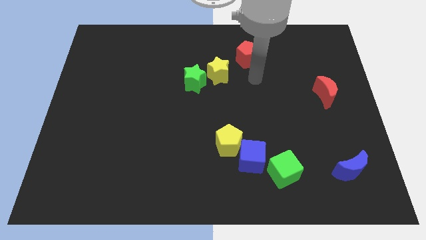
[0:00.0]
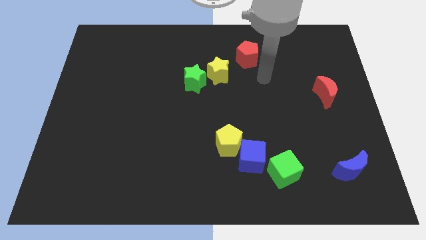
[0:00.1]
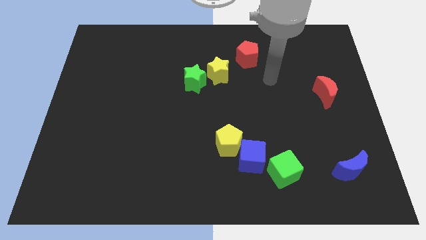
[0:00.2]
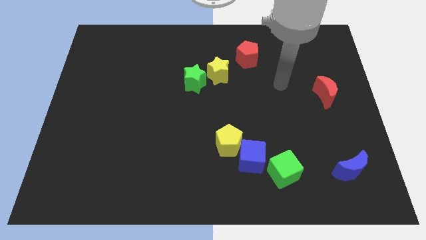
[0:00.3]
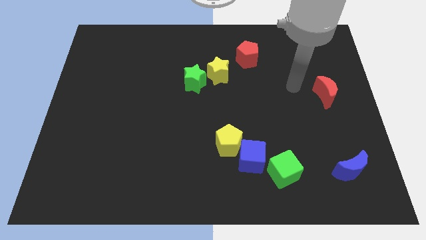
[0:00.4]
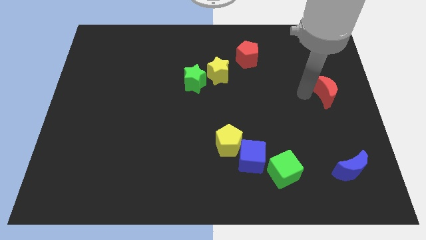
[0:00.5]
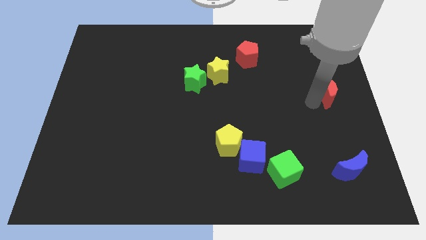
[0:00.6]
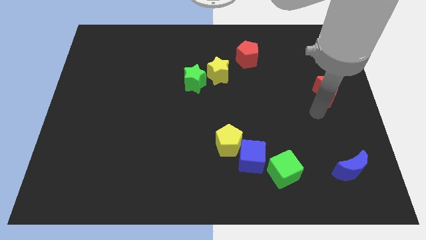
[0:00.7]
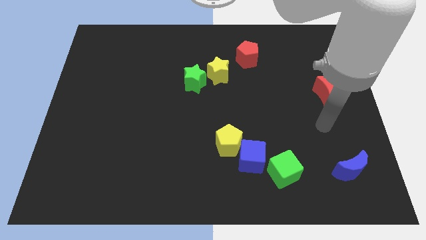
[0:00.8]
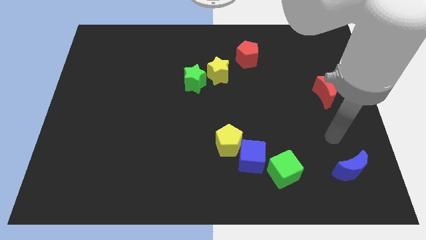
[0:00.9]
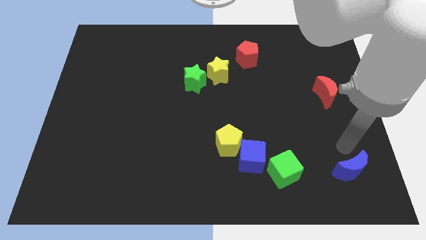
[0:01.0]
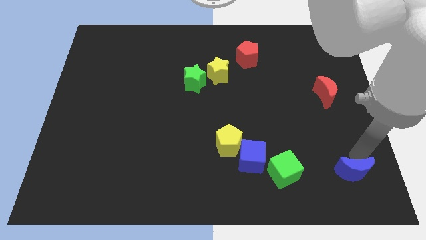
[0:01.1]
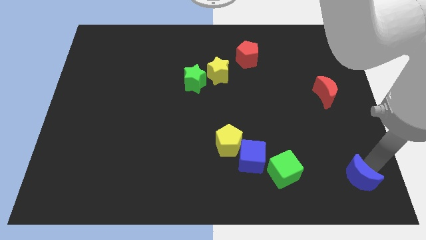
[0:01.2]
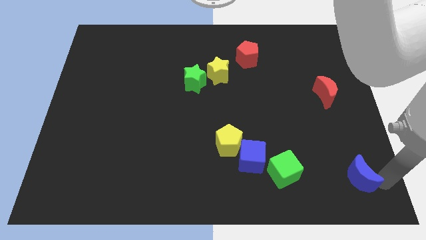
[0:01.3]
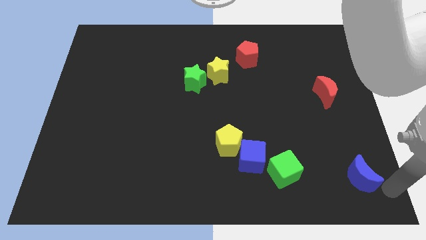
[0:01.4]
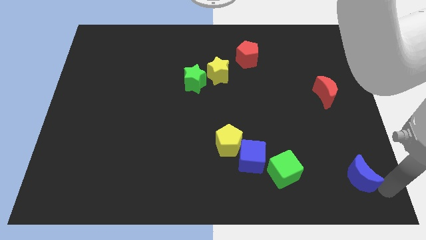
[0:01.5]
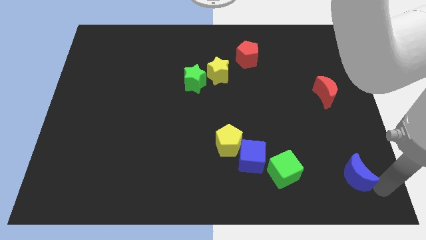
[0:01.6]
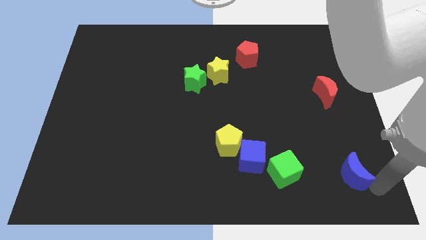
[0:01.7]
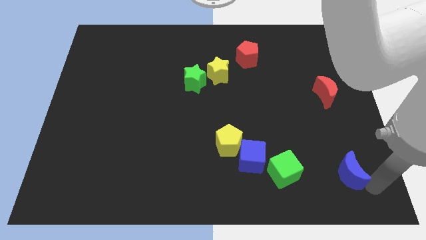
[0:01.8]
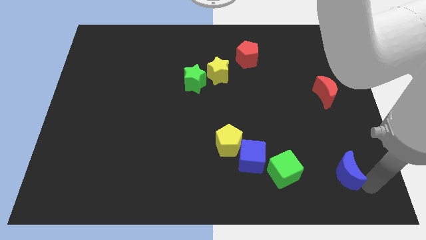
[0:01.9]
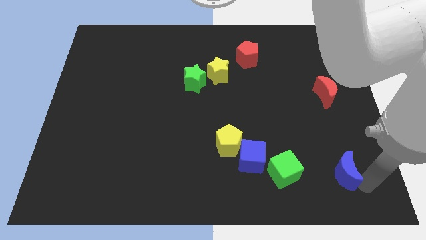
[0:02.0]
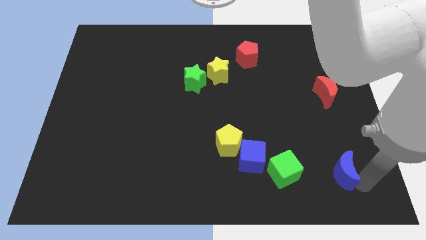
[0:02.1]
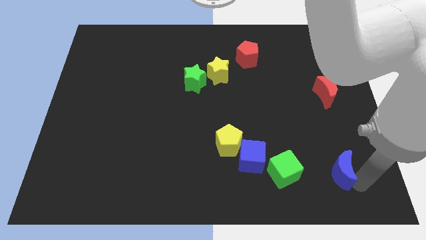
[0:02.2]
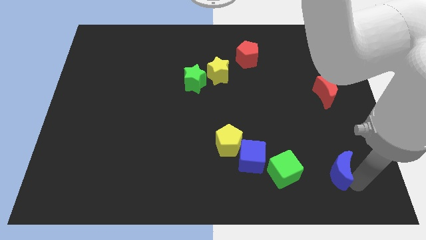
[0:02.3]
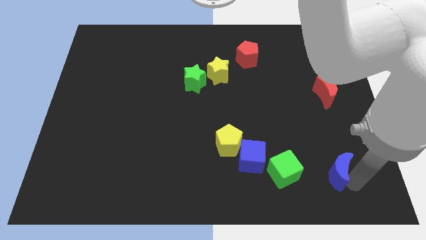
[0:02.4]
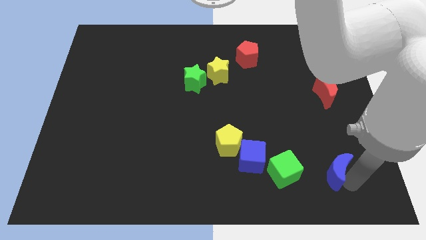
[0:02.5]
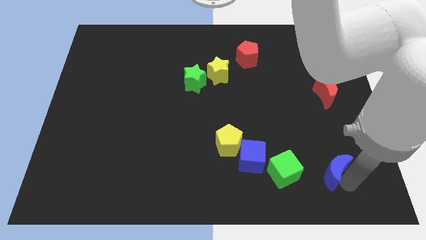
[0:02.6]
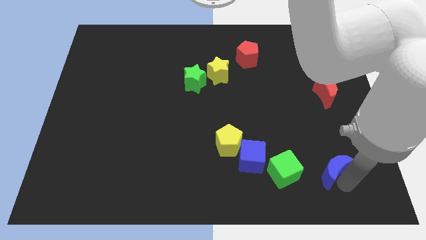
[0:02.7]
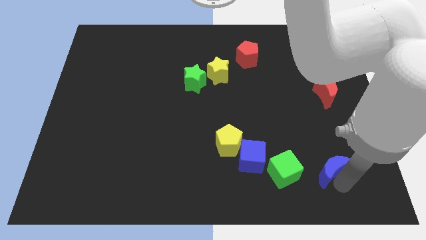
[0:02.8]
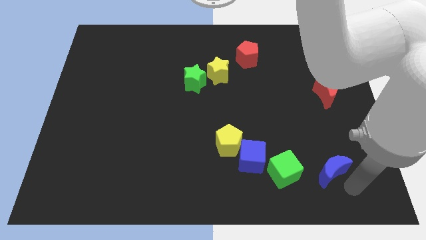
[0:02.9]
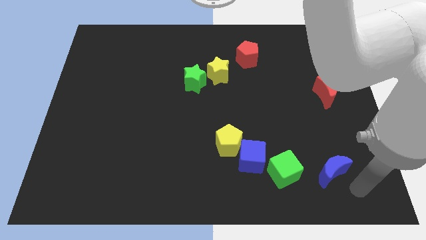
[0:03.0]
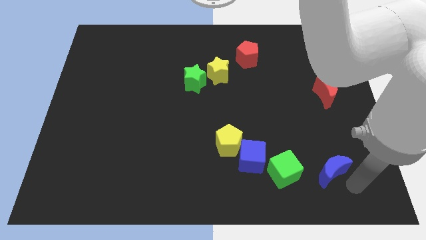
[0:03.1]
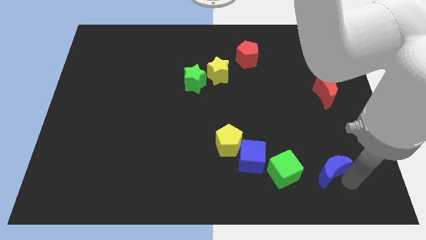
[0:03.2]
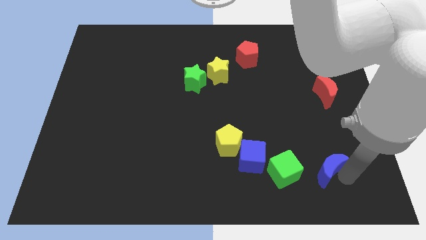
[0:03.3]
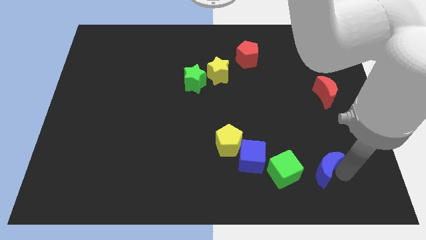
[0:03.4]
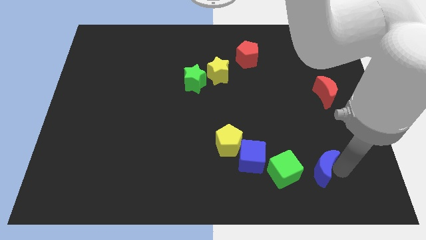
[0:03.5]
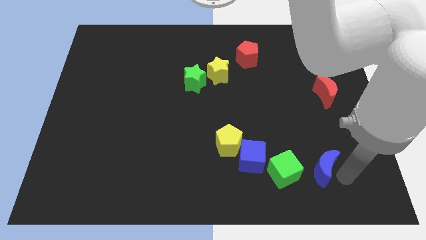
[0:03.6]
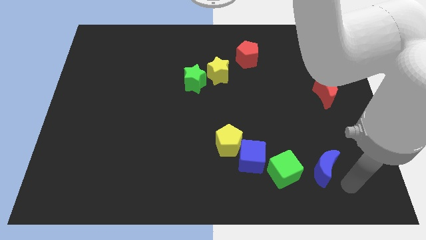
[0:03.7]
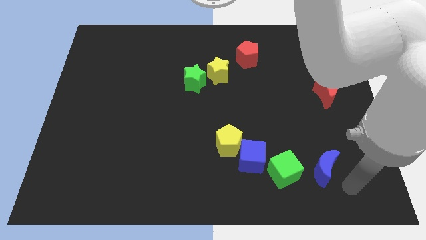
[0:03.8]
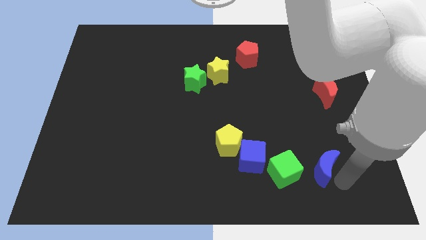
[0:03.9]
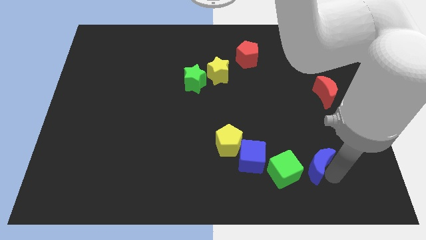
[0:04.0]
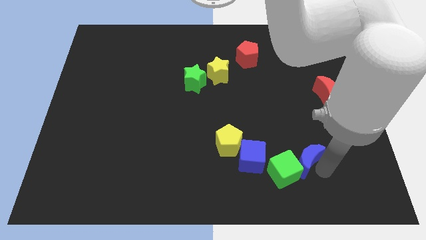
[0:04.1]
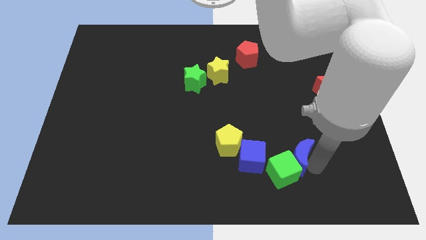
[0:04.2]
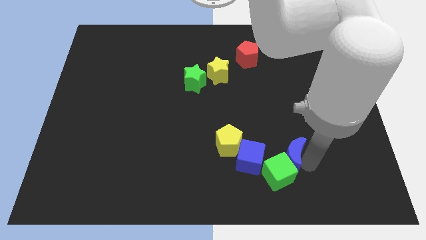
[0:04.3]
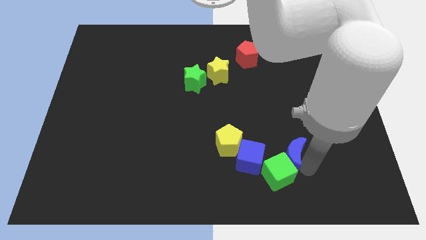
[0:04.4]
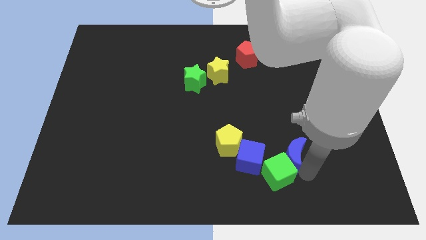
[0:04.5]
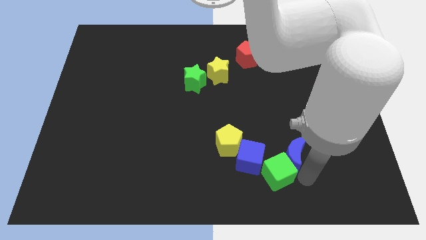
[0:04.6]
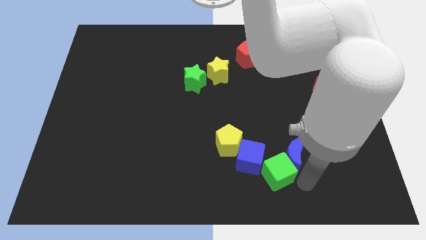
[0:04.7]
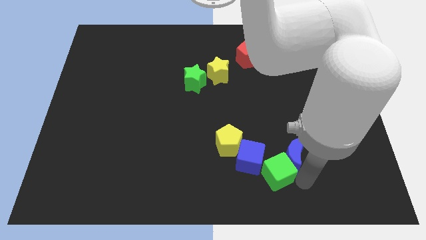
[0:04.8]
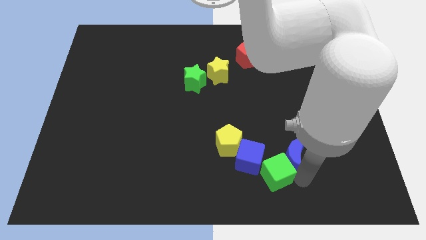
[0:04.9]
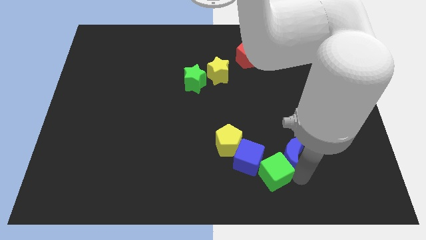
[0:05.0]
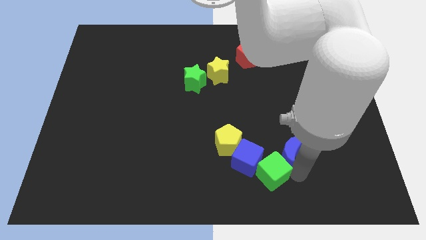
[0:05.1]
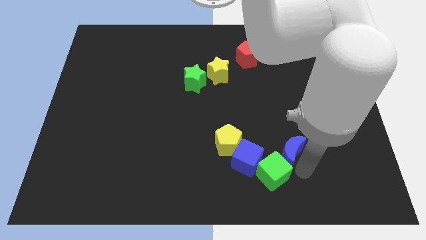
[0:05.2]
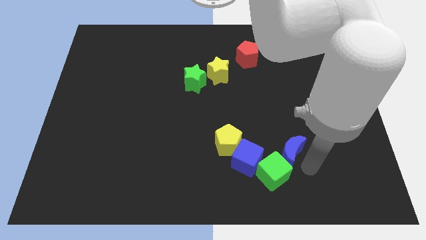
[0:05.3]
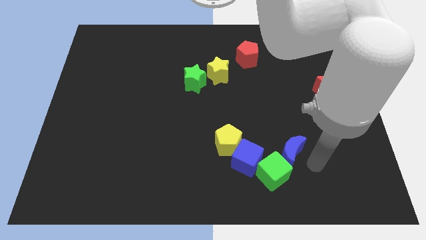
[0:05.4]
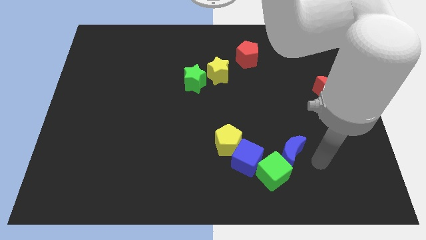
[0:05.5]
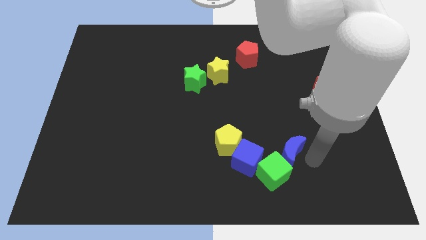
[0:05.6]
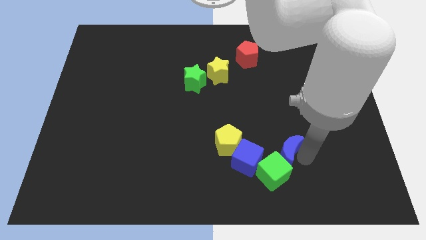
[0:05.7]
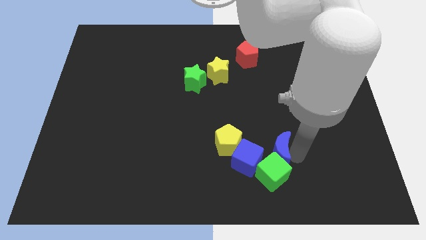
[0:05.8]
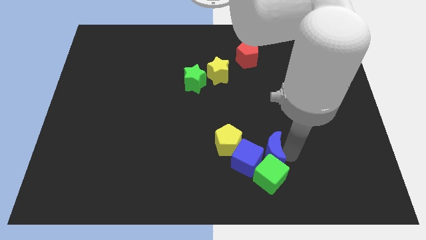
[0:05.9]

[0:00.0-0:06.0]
put the blue moon to the blue cube

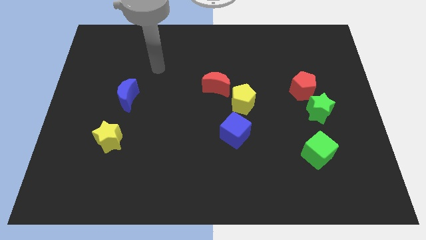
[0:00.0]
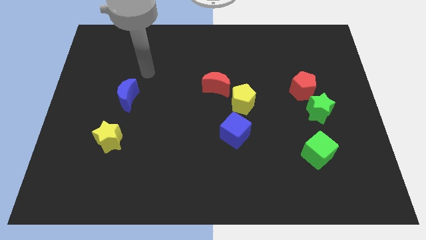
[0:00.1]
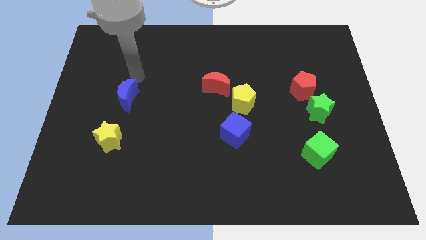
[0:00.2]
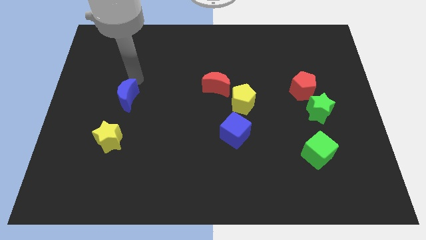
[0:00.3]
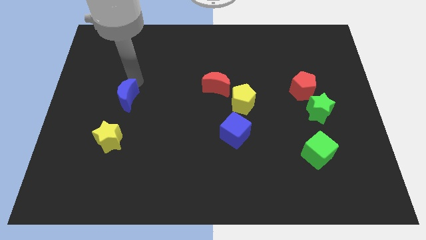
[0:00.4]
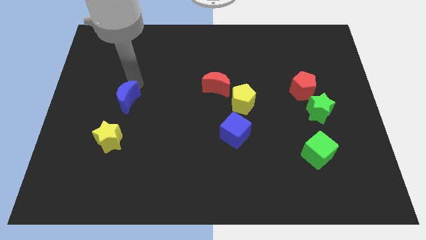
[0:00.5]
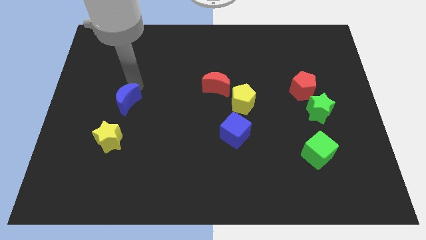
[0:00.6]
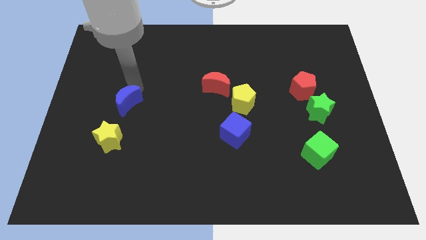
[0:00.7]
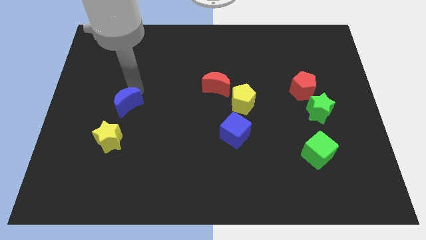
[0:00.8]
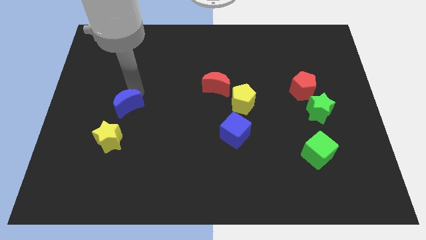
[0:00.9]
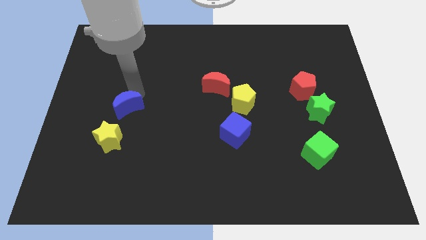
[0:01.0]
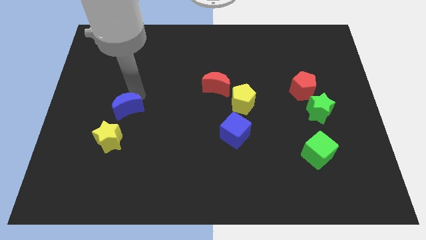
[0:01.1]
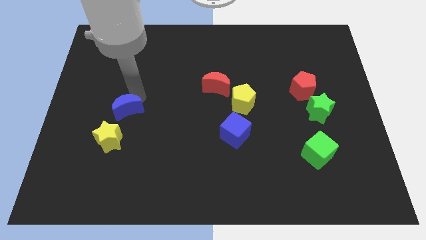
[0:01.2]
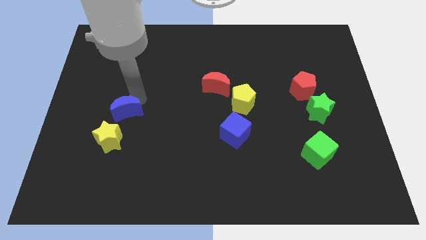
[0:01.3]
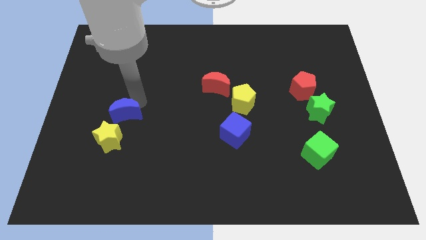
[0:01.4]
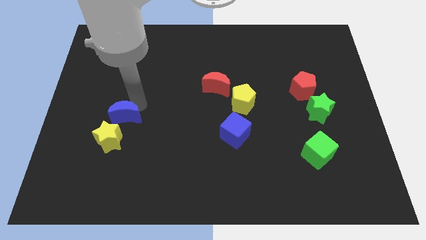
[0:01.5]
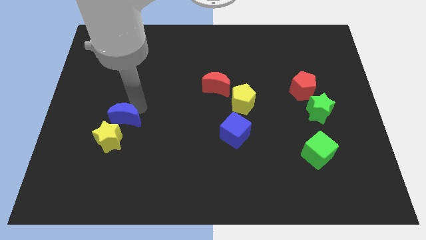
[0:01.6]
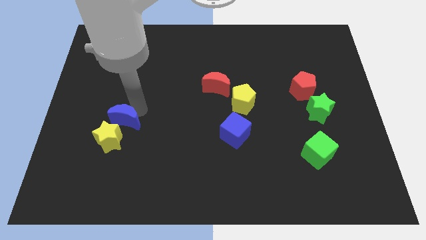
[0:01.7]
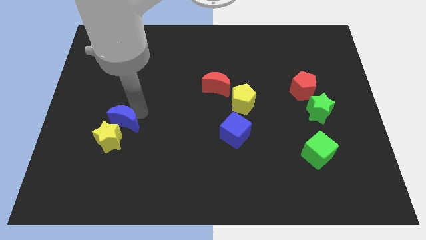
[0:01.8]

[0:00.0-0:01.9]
slide the blue moon next to the yellow star

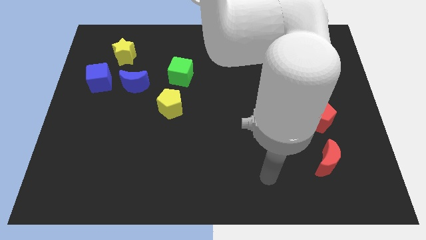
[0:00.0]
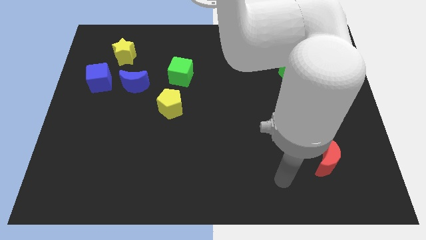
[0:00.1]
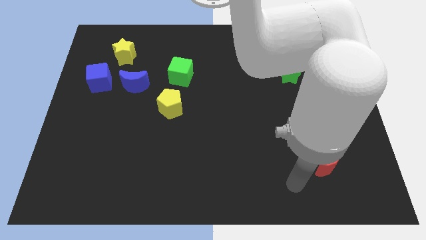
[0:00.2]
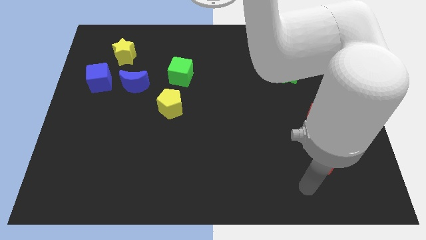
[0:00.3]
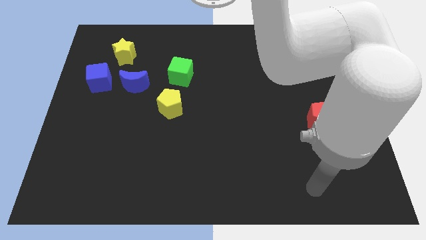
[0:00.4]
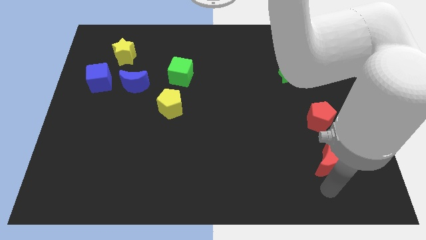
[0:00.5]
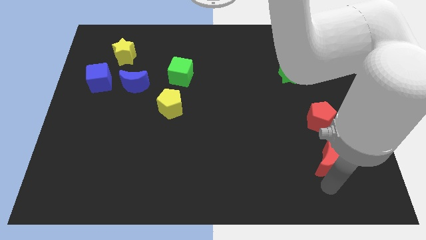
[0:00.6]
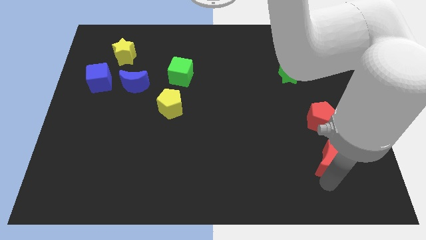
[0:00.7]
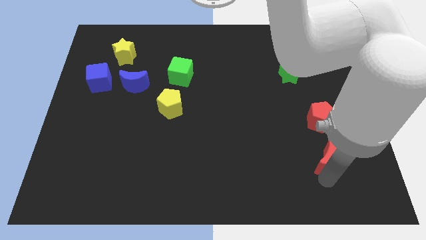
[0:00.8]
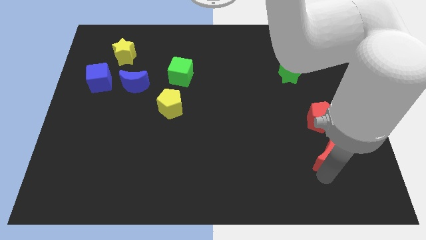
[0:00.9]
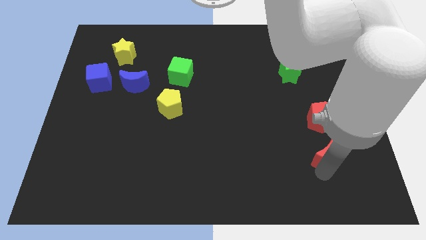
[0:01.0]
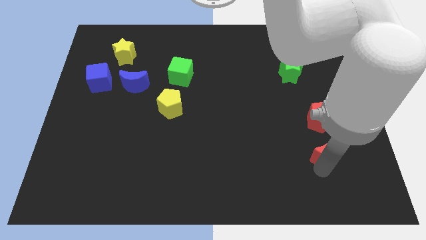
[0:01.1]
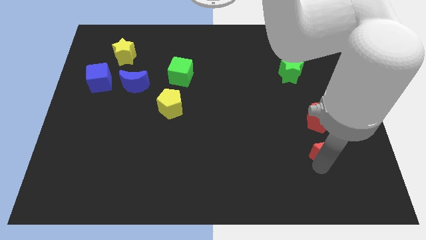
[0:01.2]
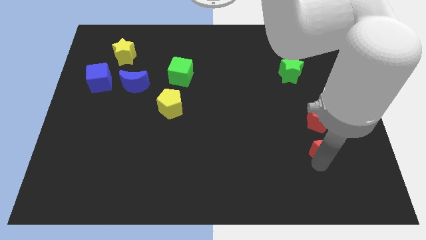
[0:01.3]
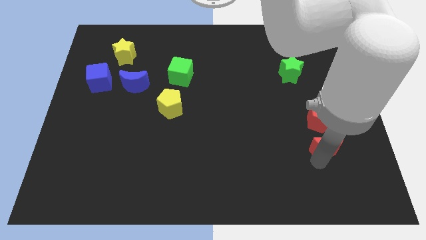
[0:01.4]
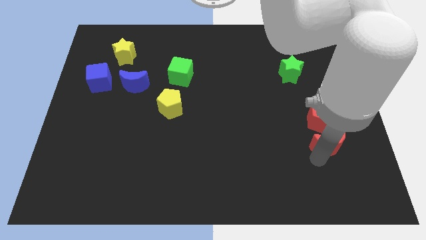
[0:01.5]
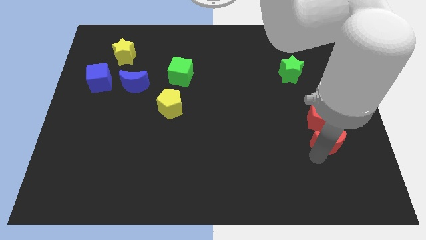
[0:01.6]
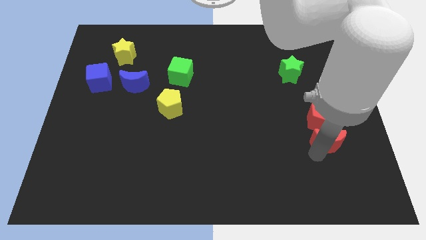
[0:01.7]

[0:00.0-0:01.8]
put the red moon next to the red pentagon
